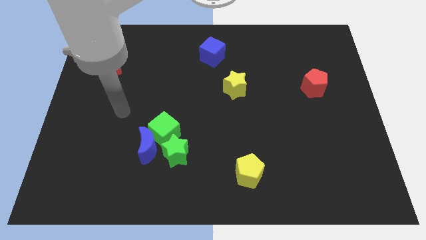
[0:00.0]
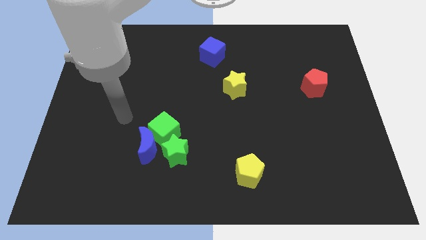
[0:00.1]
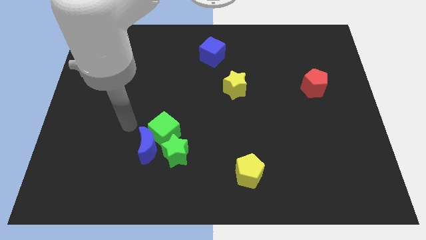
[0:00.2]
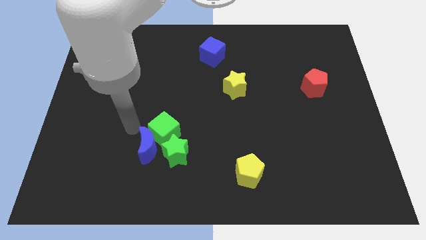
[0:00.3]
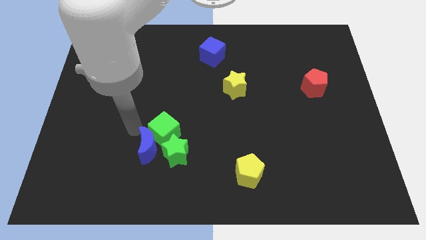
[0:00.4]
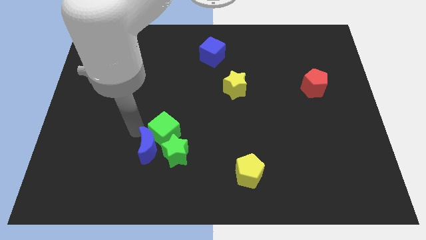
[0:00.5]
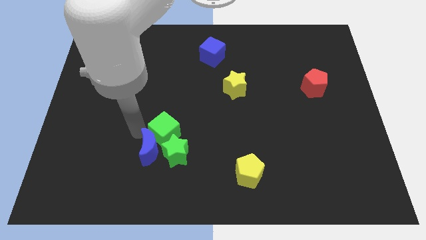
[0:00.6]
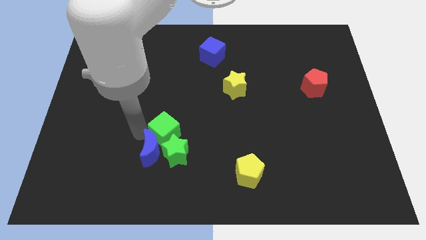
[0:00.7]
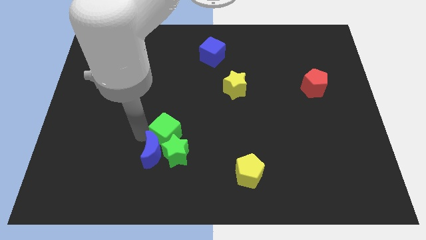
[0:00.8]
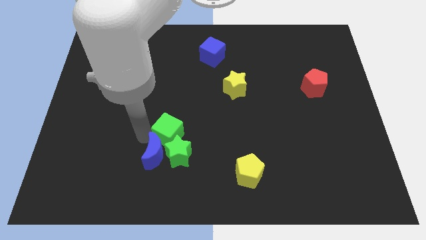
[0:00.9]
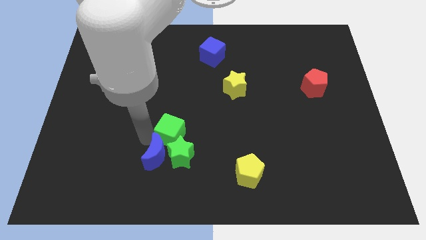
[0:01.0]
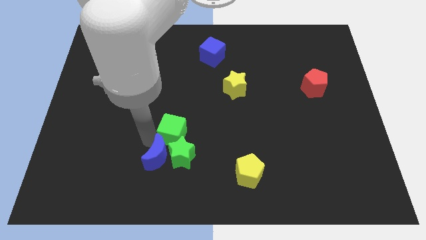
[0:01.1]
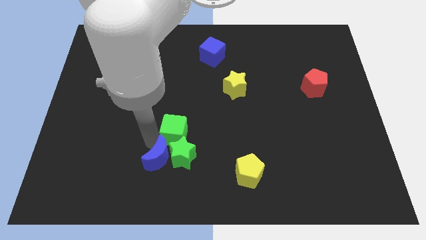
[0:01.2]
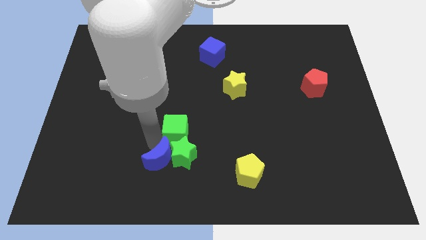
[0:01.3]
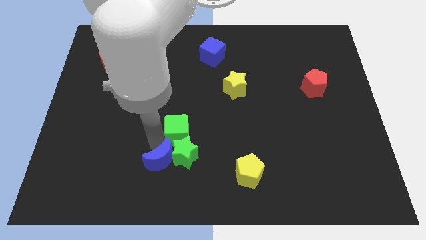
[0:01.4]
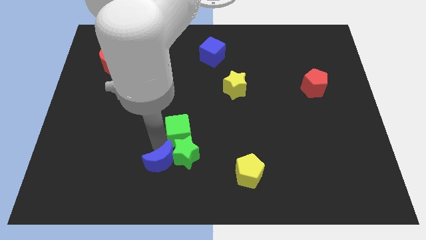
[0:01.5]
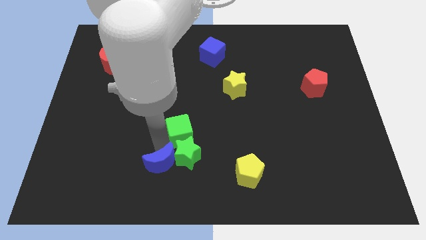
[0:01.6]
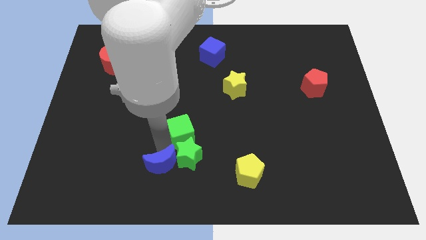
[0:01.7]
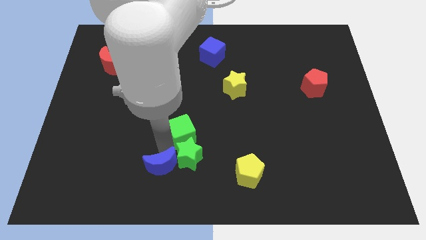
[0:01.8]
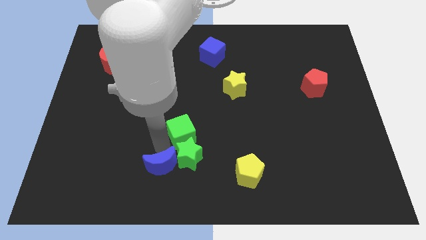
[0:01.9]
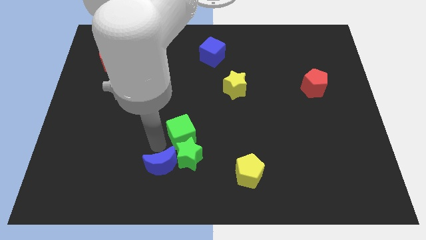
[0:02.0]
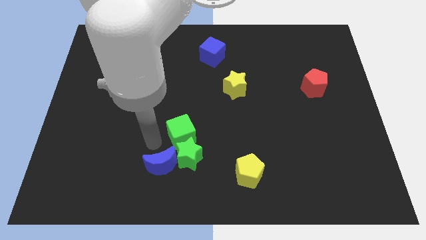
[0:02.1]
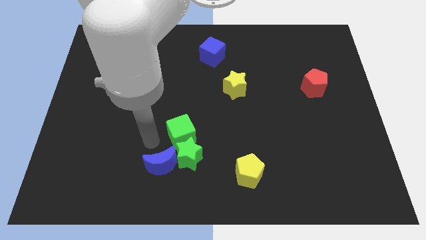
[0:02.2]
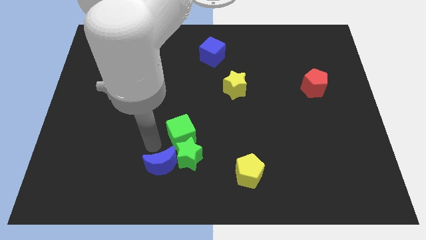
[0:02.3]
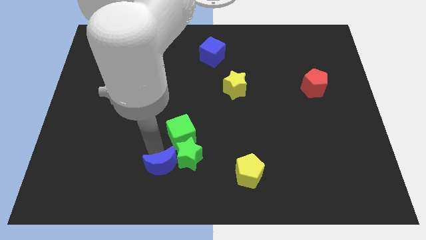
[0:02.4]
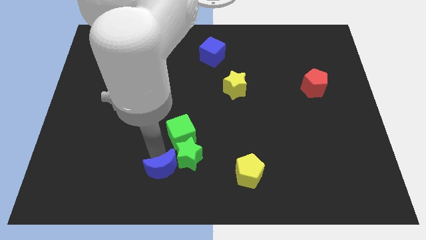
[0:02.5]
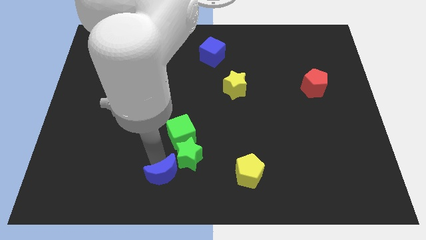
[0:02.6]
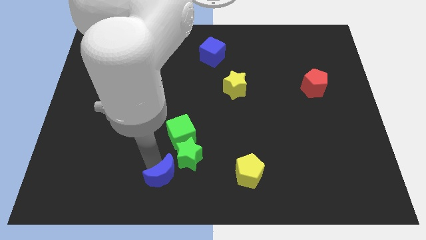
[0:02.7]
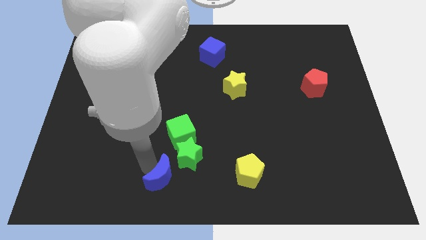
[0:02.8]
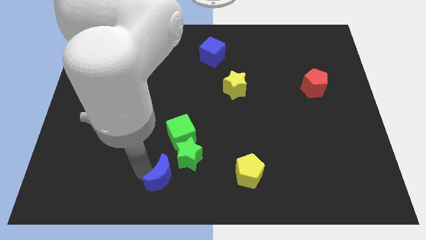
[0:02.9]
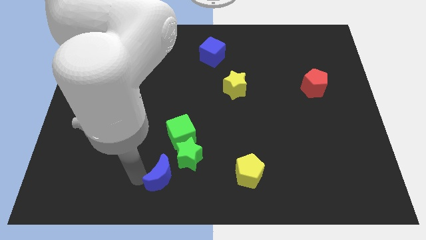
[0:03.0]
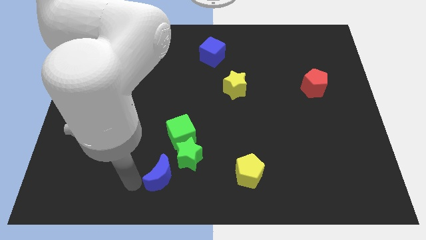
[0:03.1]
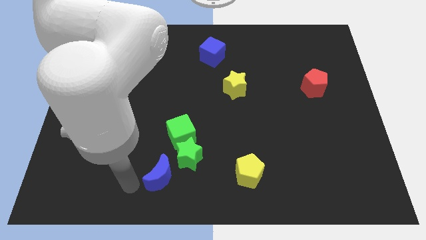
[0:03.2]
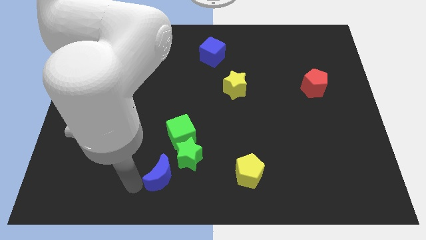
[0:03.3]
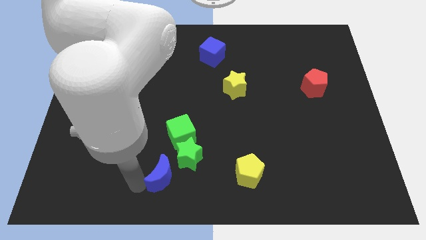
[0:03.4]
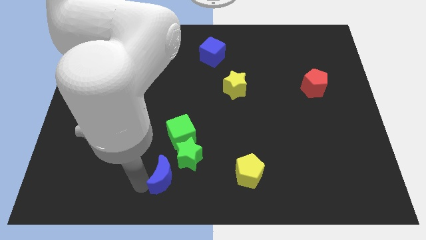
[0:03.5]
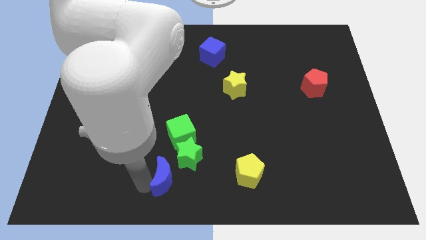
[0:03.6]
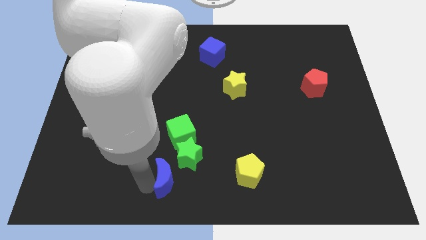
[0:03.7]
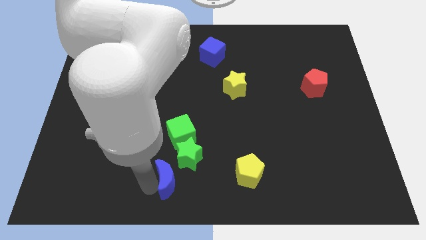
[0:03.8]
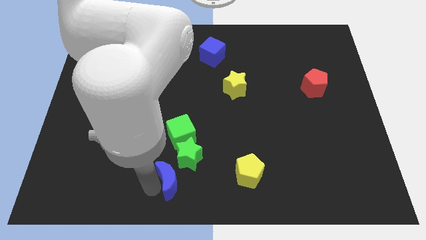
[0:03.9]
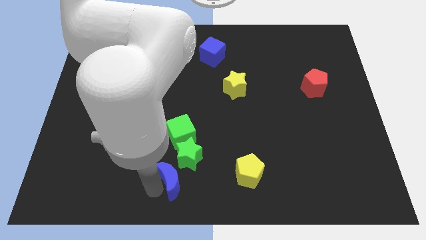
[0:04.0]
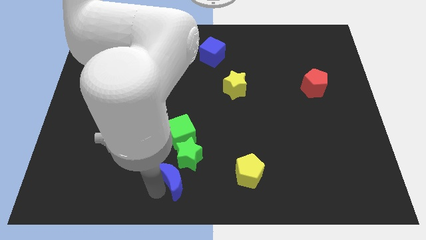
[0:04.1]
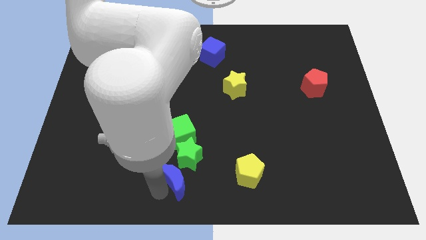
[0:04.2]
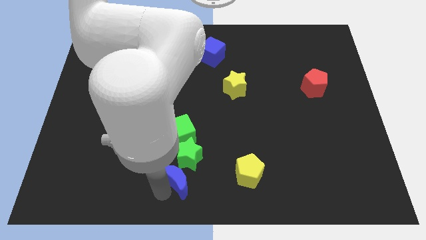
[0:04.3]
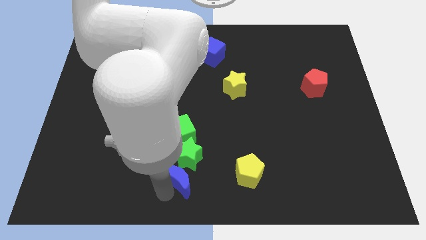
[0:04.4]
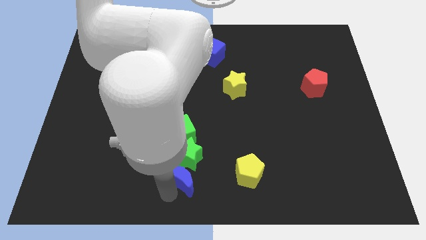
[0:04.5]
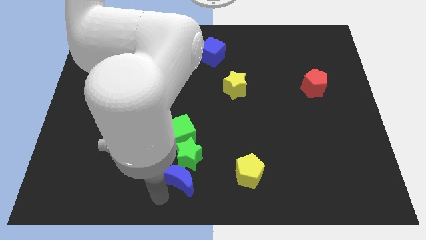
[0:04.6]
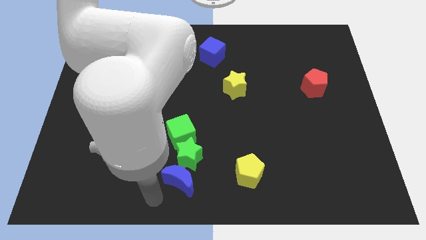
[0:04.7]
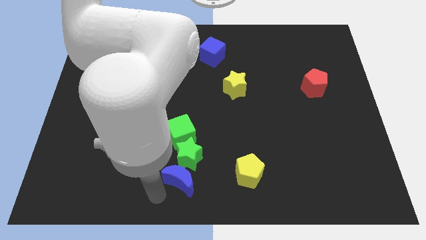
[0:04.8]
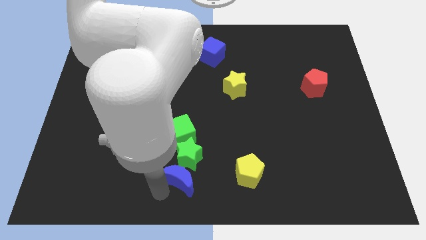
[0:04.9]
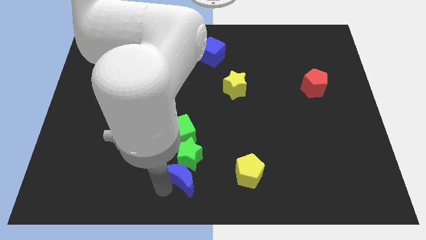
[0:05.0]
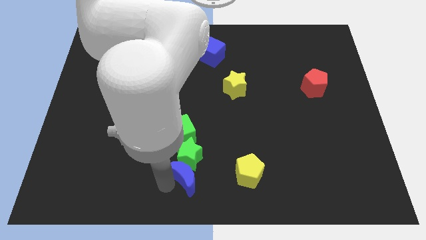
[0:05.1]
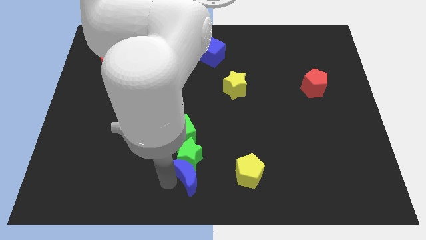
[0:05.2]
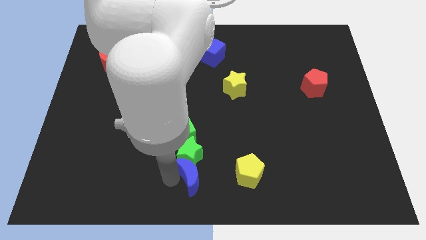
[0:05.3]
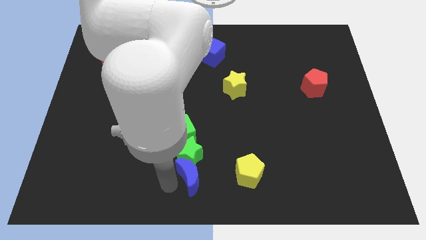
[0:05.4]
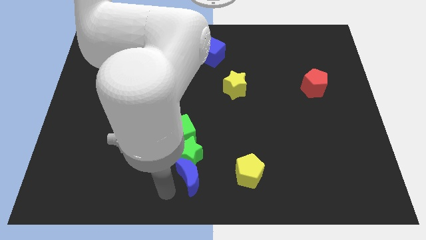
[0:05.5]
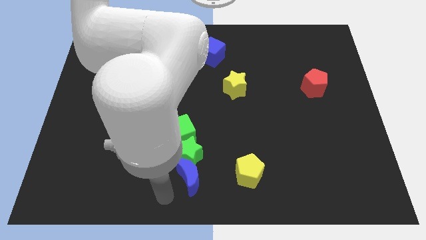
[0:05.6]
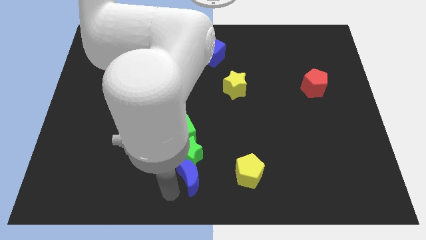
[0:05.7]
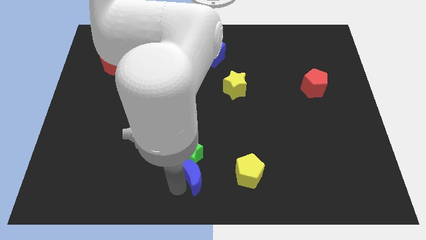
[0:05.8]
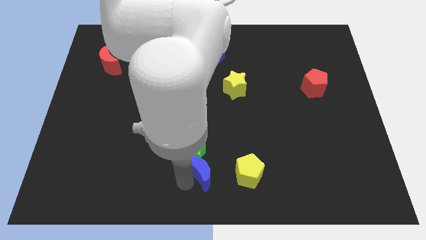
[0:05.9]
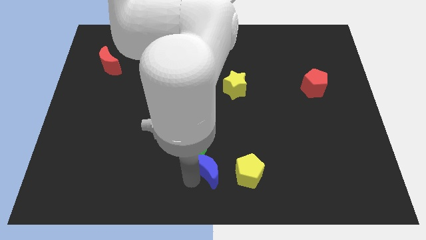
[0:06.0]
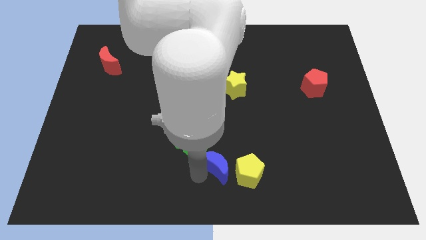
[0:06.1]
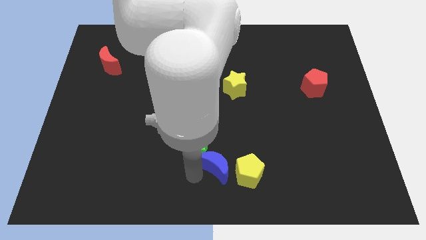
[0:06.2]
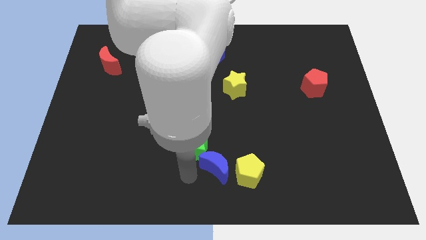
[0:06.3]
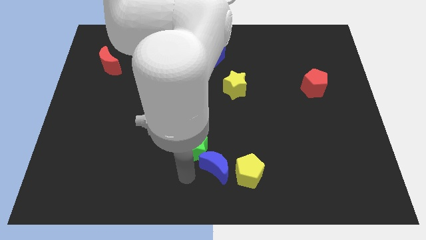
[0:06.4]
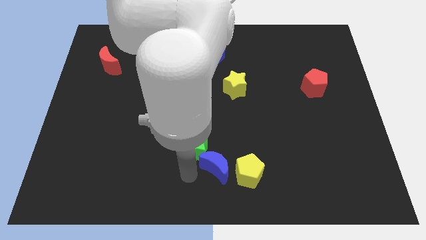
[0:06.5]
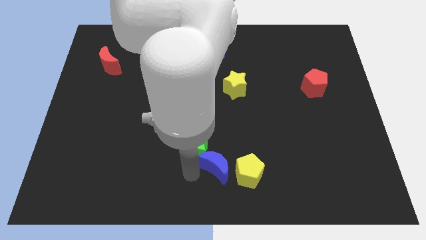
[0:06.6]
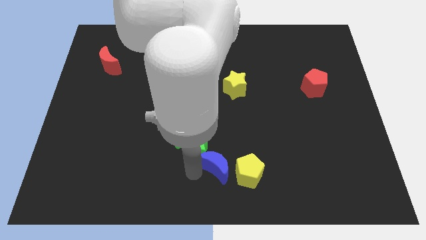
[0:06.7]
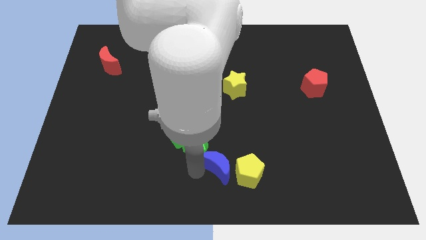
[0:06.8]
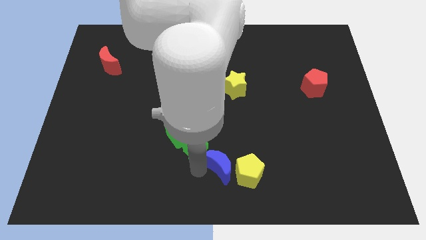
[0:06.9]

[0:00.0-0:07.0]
push the blue moon towards the yellow pentagon
